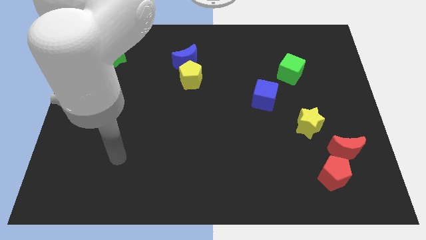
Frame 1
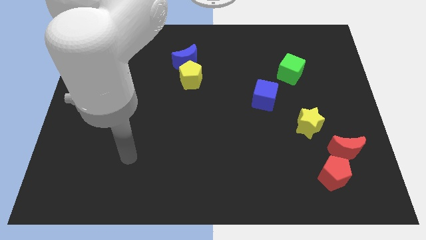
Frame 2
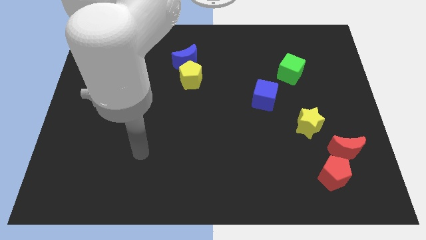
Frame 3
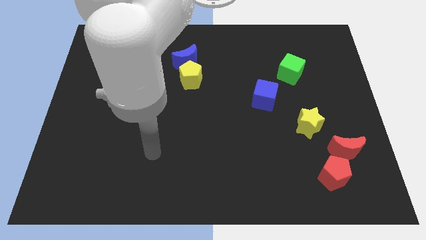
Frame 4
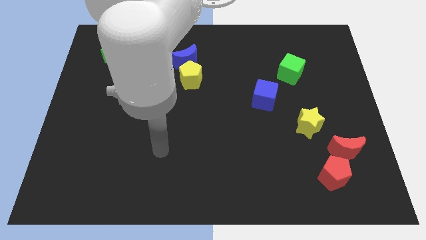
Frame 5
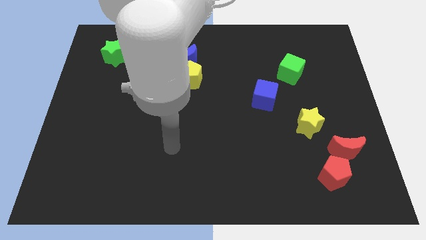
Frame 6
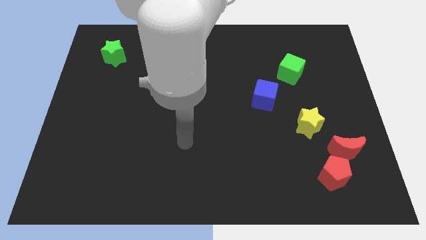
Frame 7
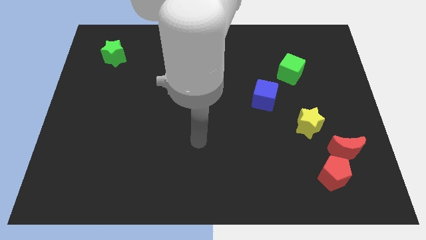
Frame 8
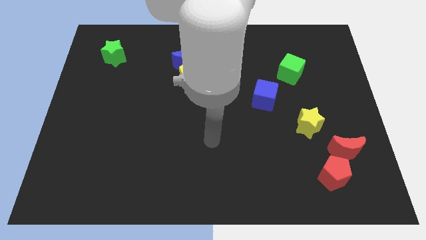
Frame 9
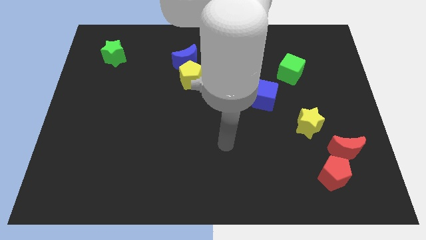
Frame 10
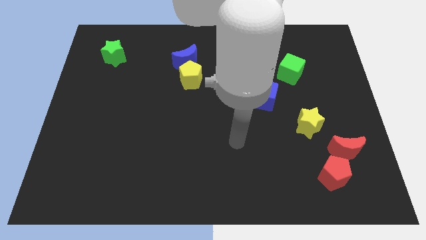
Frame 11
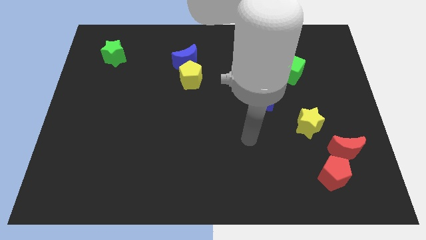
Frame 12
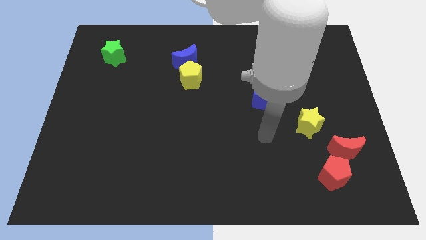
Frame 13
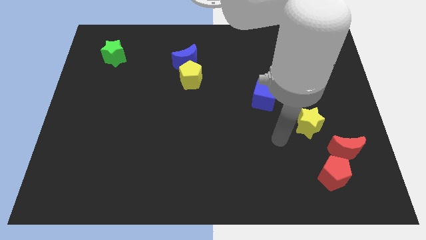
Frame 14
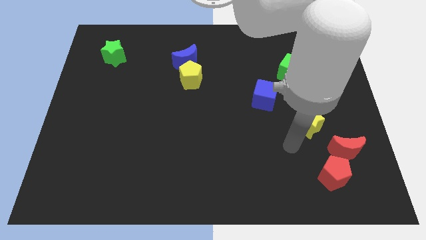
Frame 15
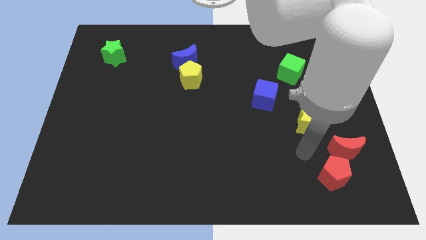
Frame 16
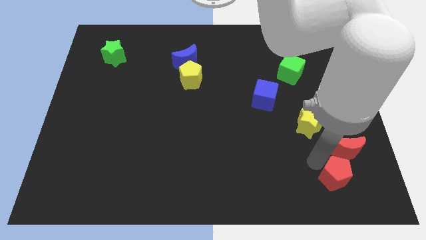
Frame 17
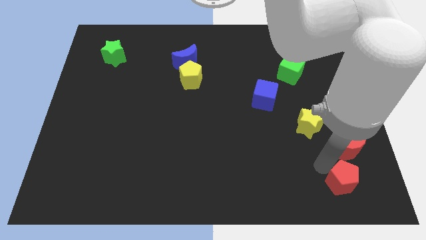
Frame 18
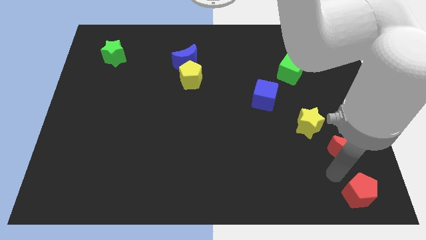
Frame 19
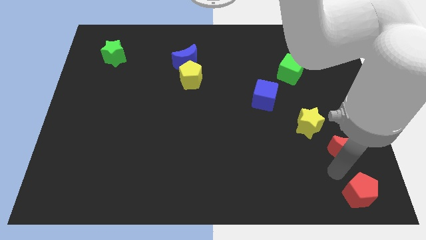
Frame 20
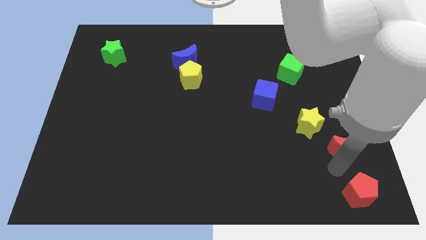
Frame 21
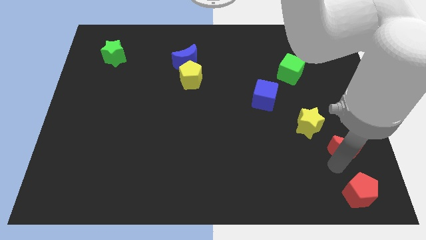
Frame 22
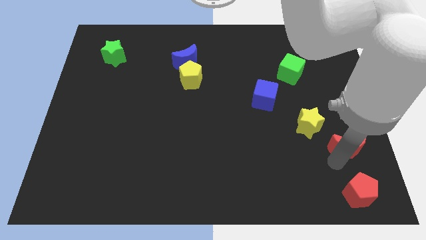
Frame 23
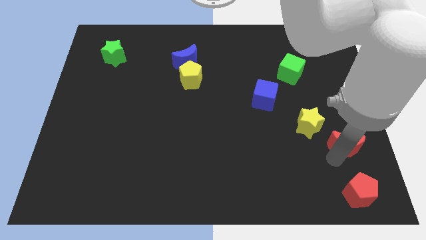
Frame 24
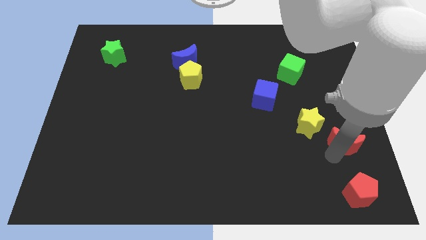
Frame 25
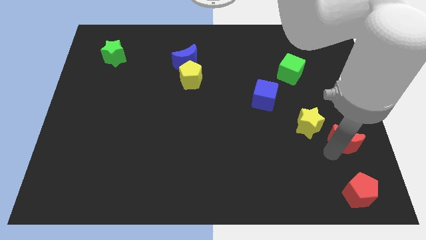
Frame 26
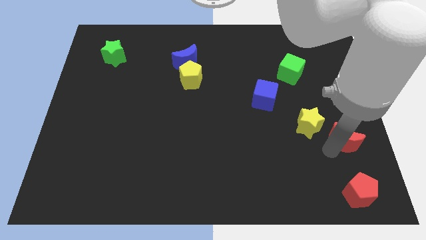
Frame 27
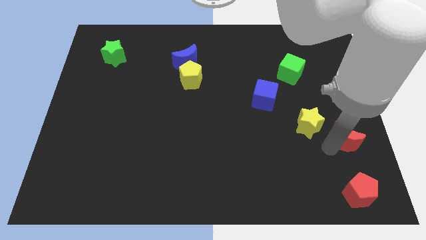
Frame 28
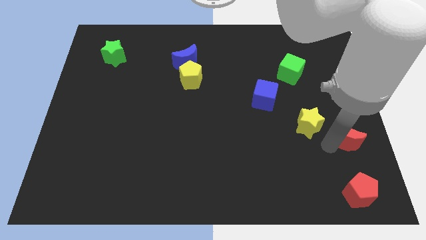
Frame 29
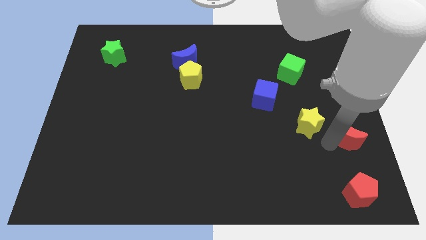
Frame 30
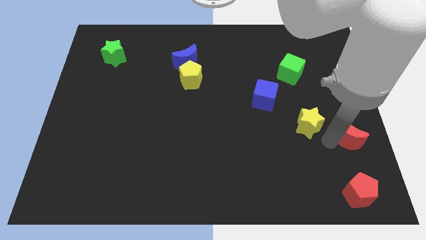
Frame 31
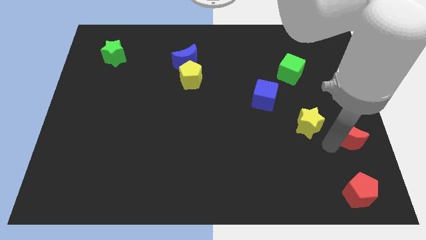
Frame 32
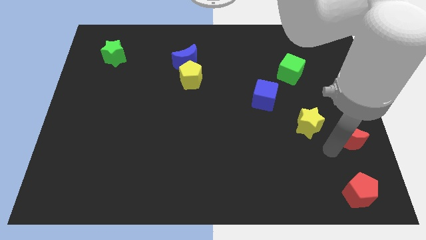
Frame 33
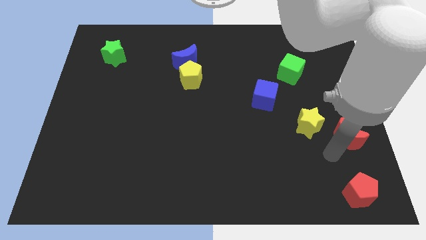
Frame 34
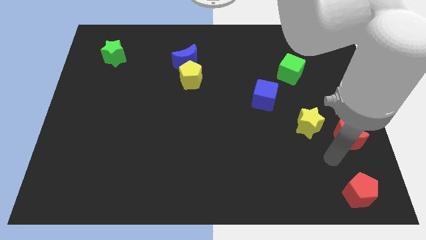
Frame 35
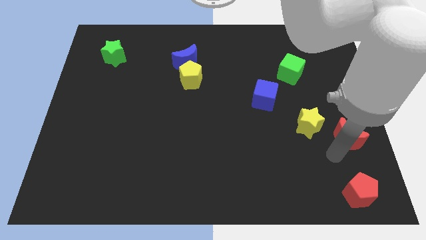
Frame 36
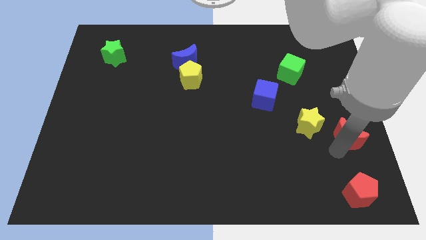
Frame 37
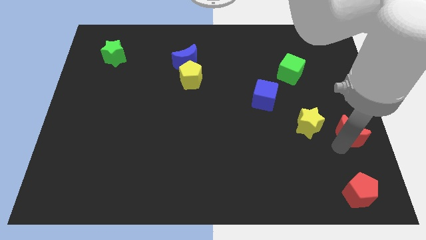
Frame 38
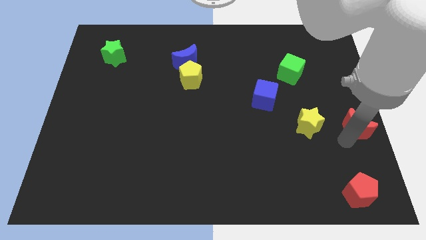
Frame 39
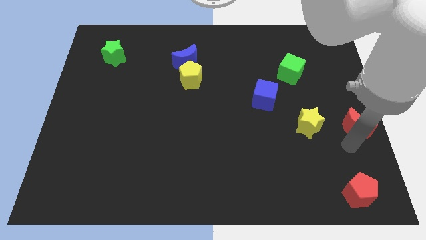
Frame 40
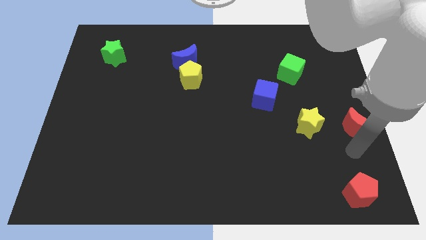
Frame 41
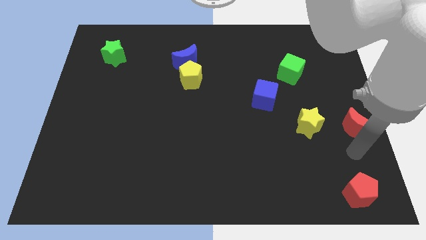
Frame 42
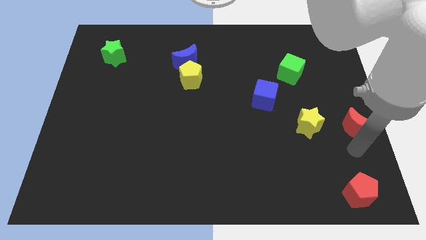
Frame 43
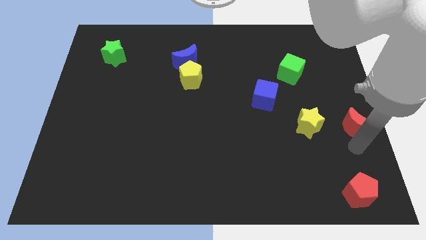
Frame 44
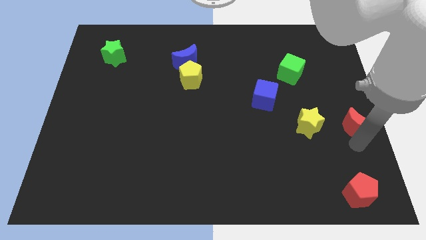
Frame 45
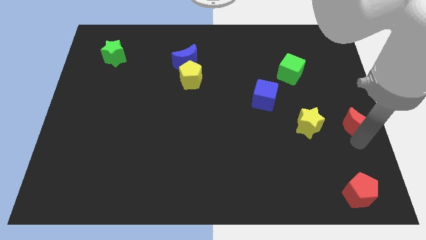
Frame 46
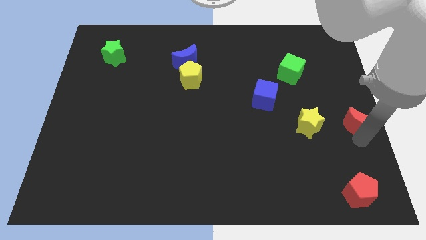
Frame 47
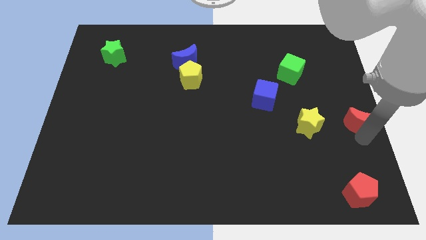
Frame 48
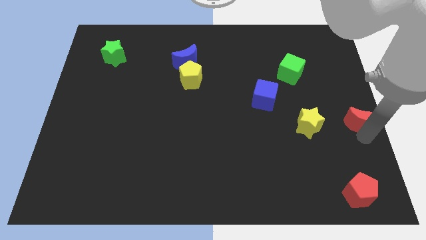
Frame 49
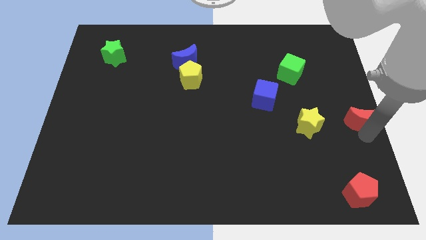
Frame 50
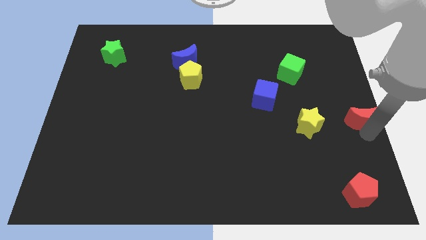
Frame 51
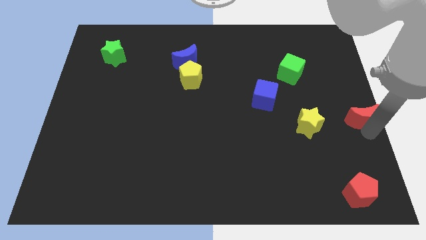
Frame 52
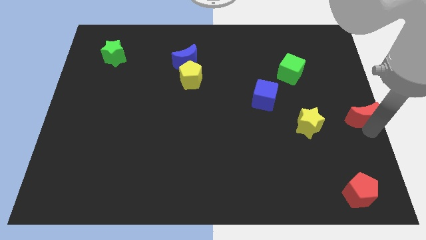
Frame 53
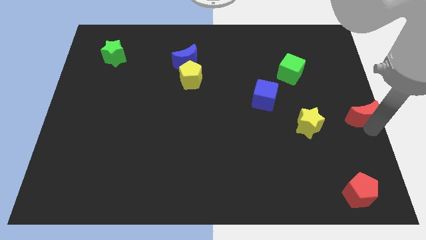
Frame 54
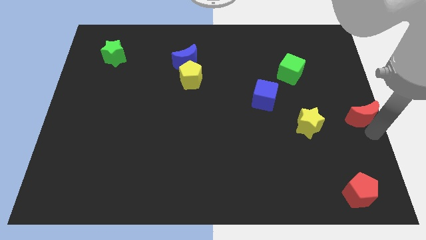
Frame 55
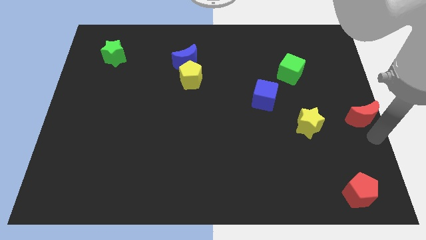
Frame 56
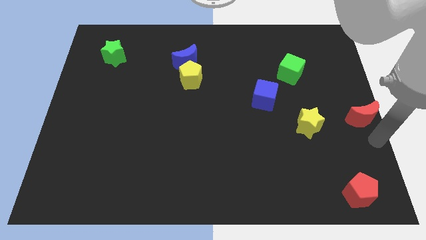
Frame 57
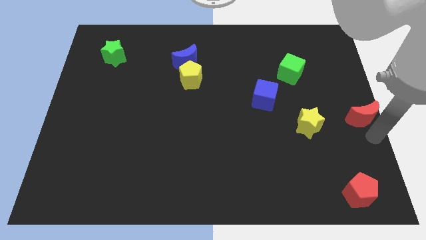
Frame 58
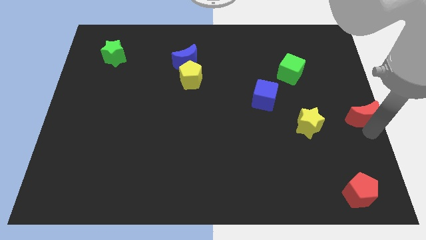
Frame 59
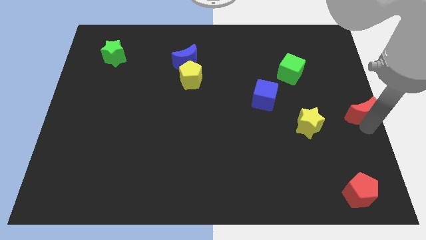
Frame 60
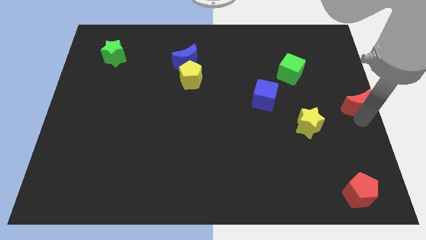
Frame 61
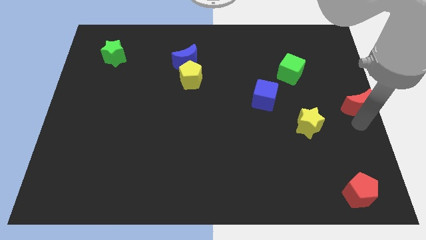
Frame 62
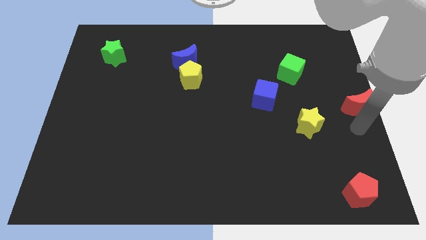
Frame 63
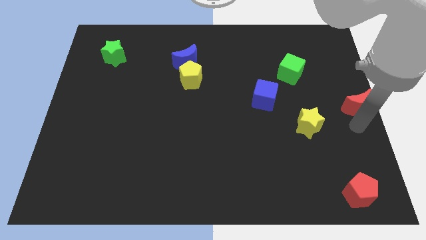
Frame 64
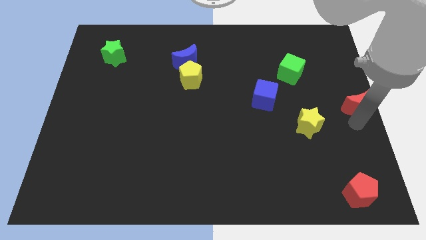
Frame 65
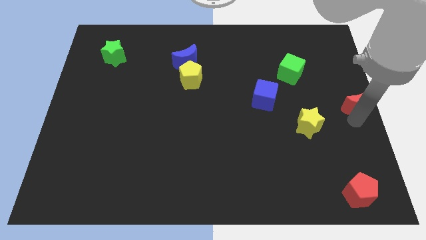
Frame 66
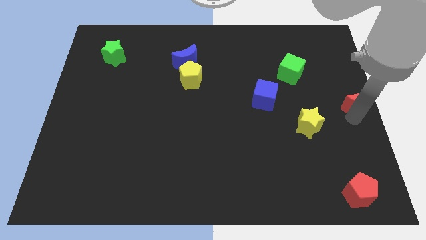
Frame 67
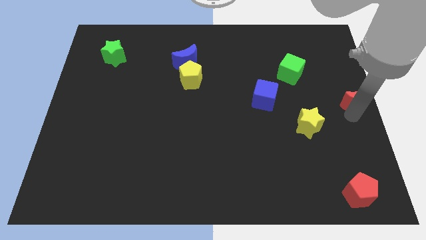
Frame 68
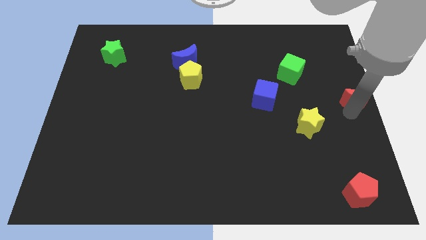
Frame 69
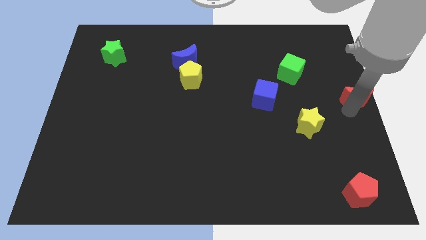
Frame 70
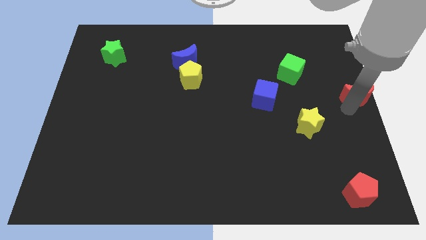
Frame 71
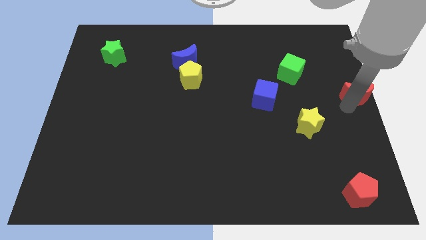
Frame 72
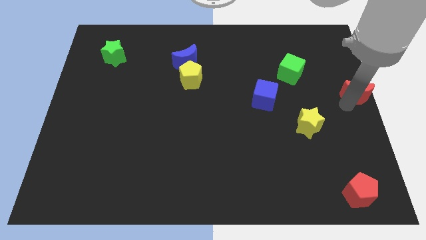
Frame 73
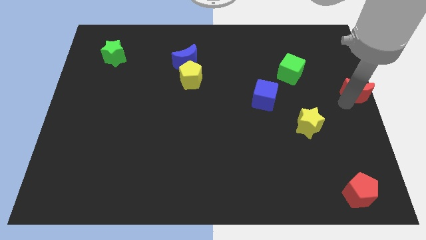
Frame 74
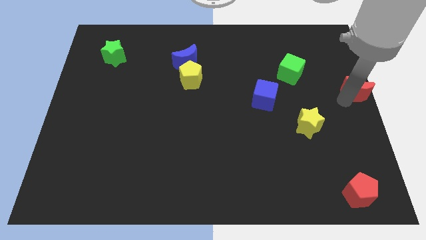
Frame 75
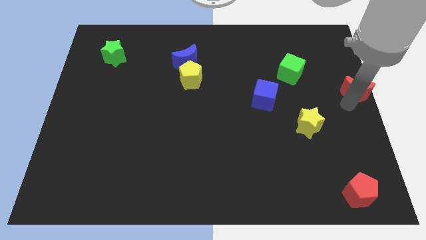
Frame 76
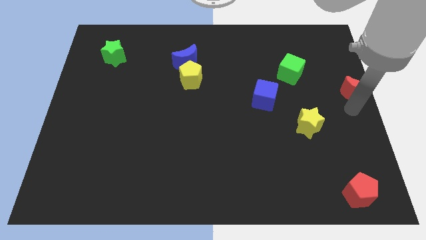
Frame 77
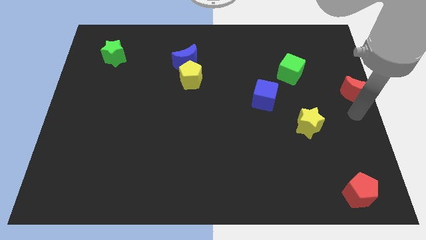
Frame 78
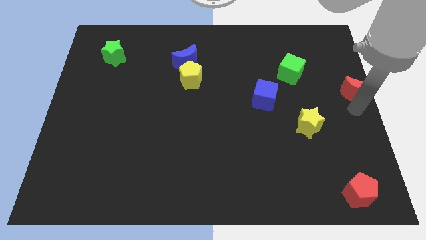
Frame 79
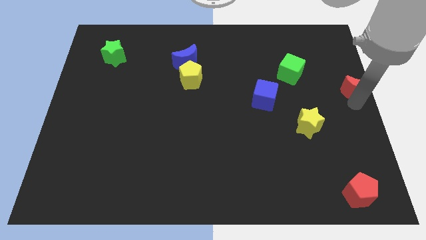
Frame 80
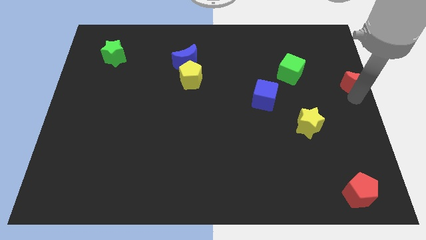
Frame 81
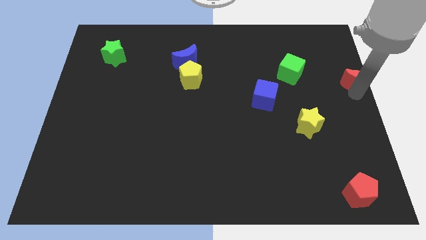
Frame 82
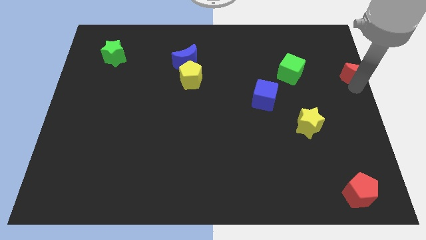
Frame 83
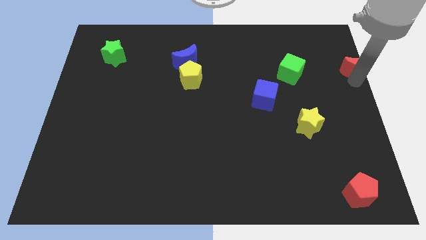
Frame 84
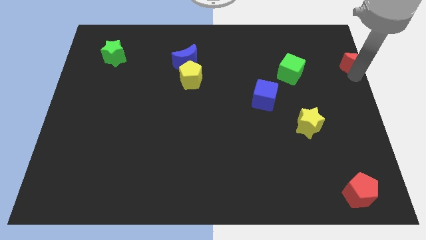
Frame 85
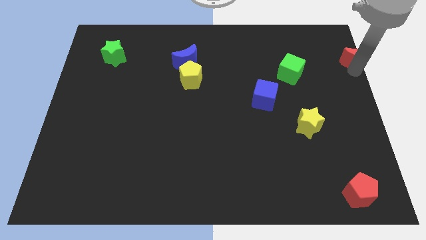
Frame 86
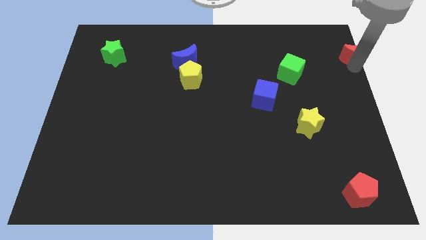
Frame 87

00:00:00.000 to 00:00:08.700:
put the red moon to the top right corner
